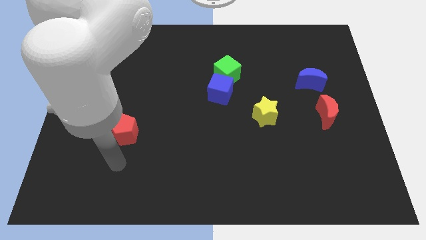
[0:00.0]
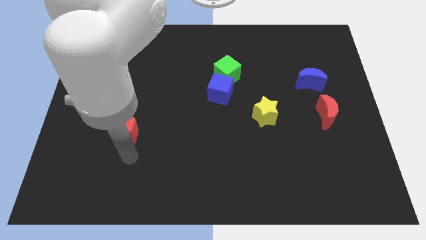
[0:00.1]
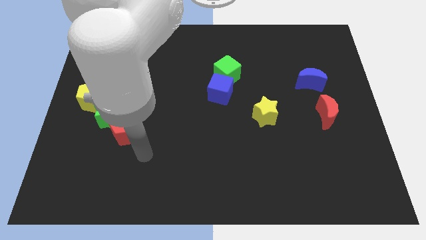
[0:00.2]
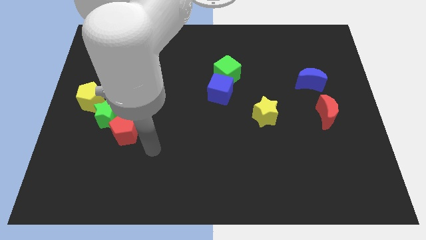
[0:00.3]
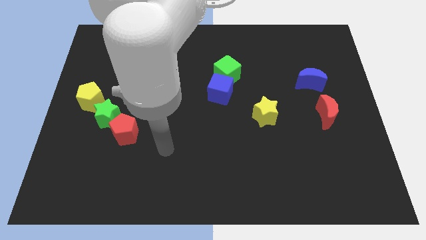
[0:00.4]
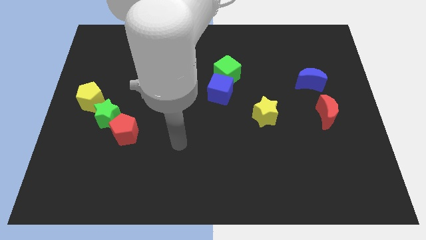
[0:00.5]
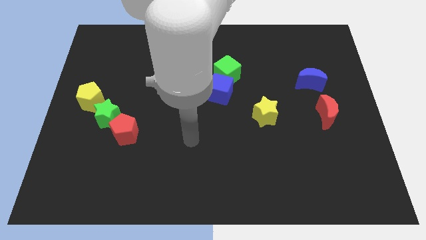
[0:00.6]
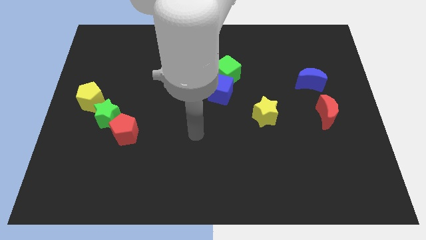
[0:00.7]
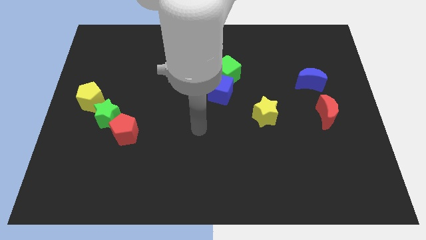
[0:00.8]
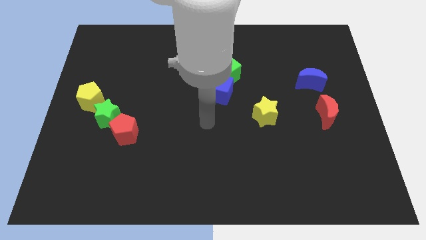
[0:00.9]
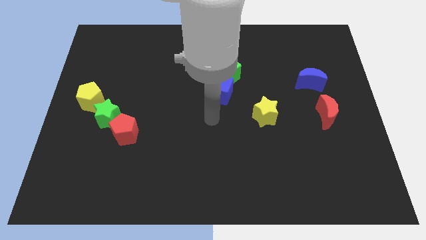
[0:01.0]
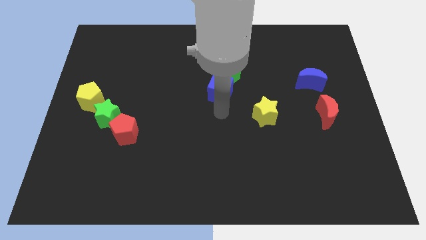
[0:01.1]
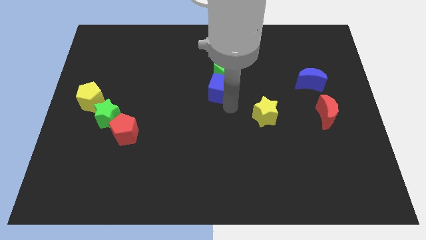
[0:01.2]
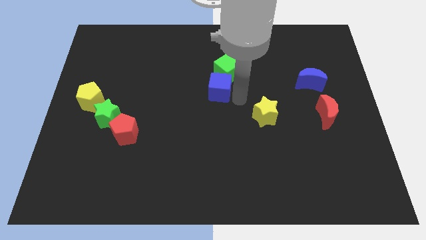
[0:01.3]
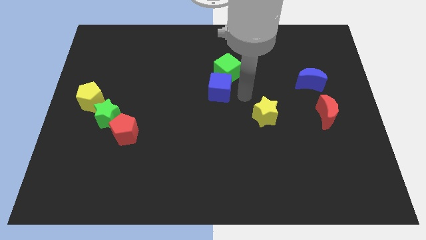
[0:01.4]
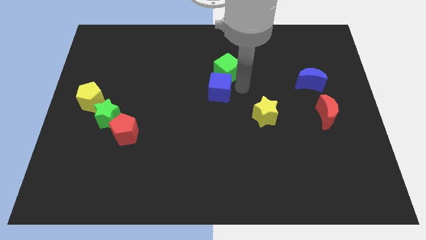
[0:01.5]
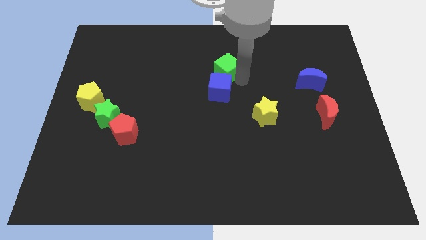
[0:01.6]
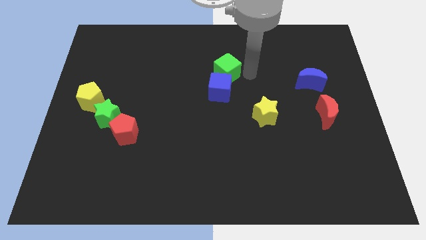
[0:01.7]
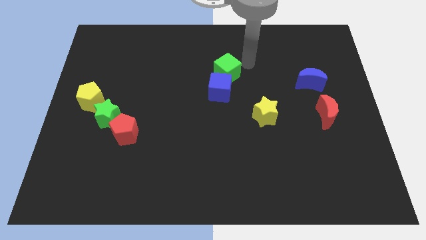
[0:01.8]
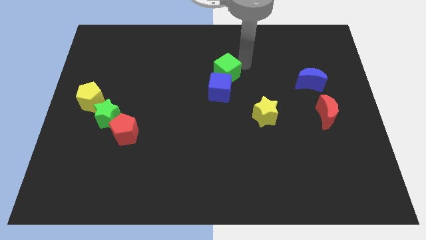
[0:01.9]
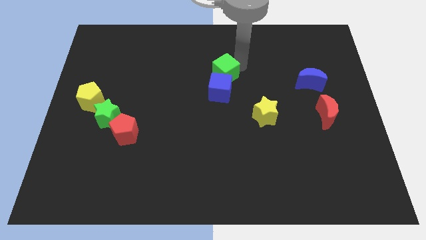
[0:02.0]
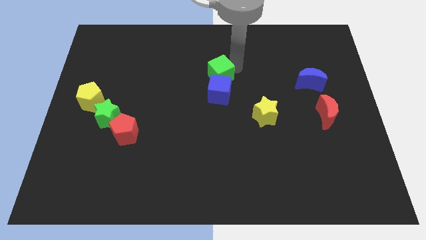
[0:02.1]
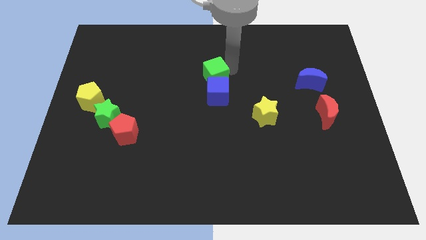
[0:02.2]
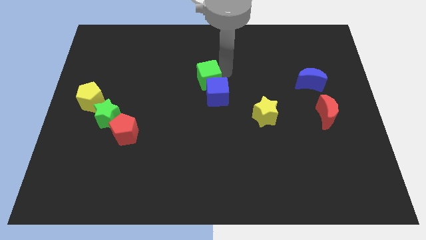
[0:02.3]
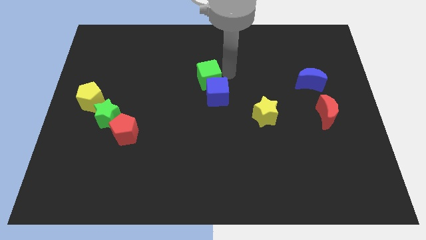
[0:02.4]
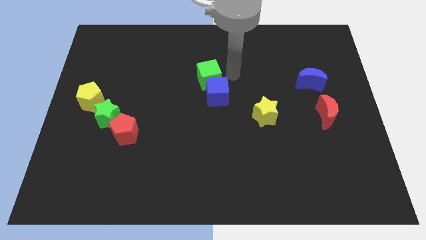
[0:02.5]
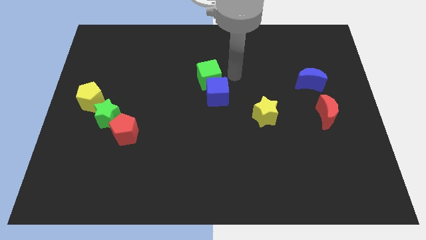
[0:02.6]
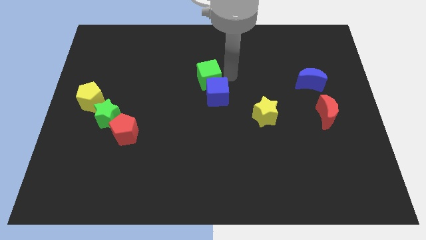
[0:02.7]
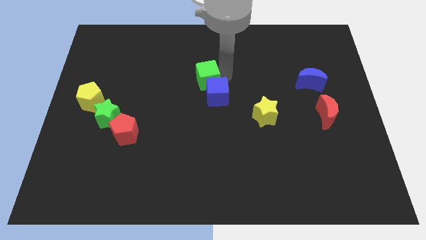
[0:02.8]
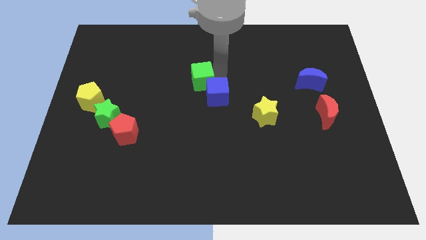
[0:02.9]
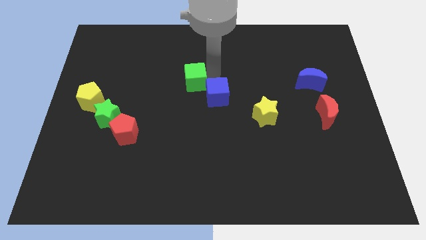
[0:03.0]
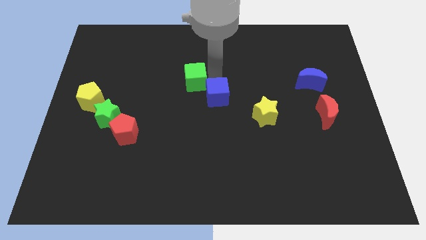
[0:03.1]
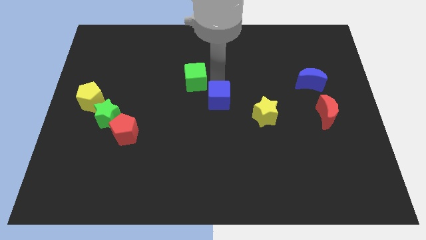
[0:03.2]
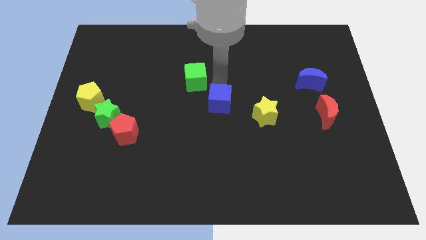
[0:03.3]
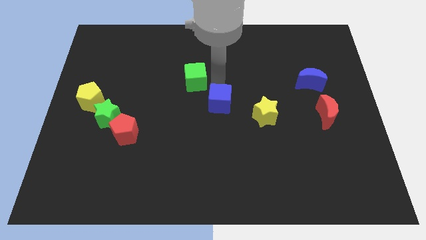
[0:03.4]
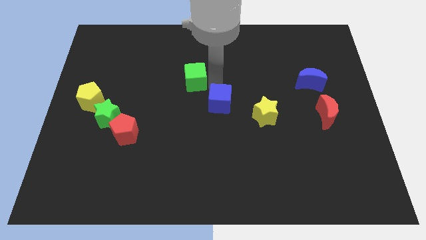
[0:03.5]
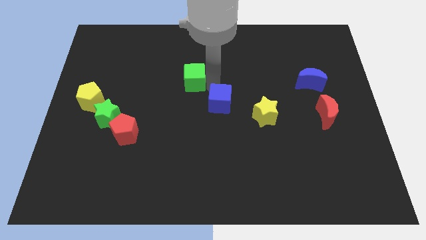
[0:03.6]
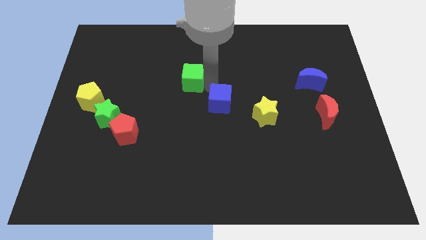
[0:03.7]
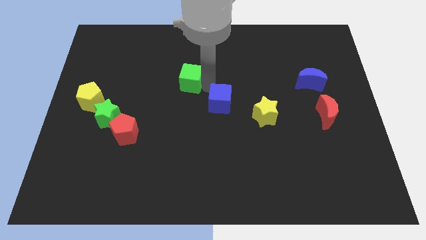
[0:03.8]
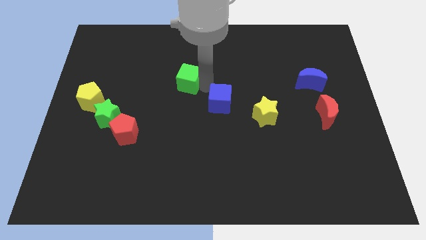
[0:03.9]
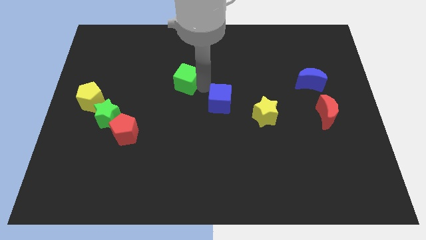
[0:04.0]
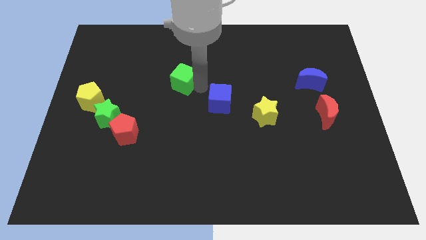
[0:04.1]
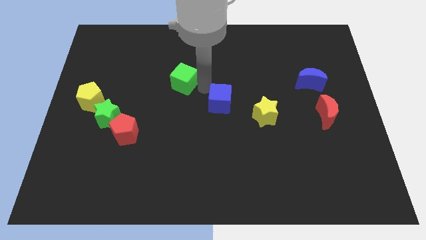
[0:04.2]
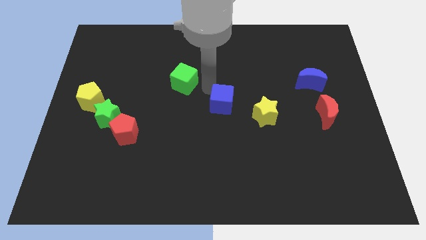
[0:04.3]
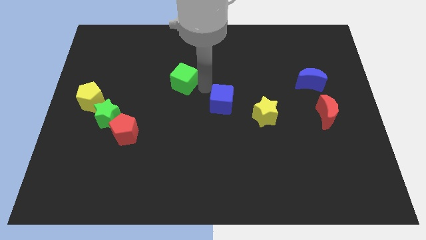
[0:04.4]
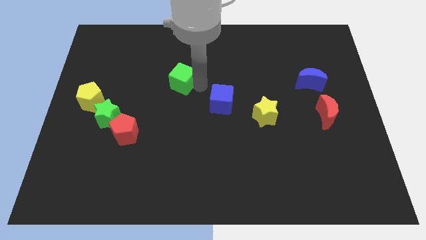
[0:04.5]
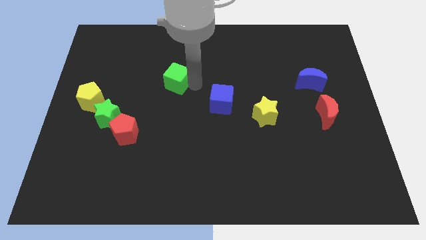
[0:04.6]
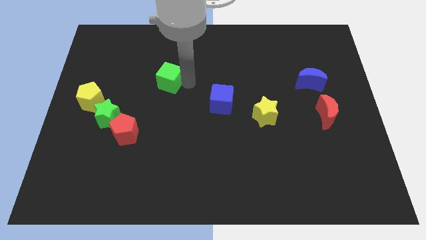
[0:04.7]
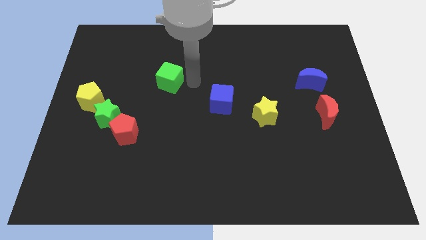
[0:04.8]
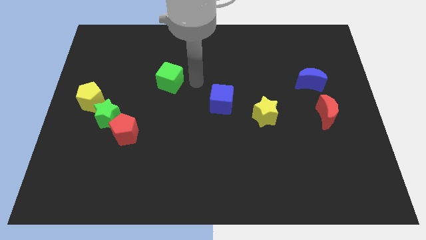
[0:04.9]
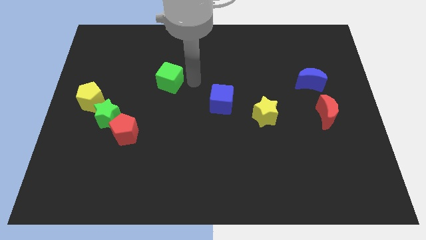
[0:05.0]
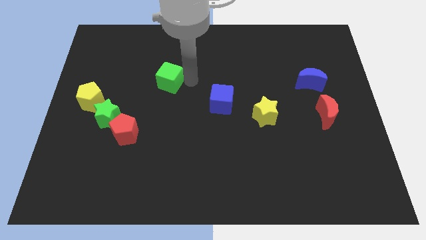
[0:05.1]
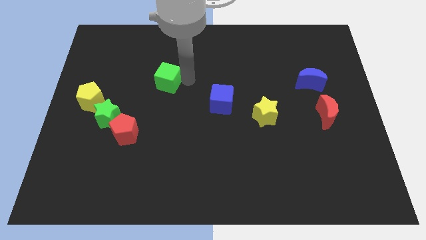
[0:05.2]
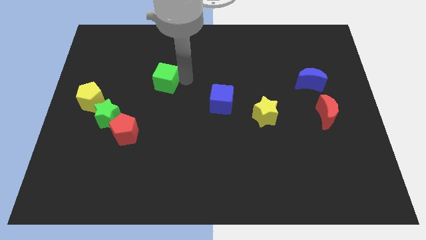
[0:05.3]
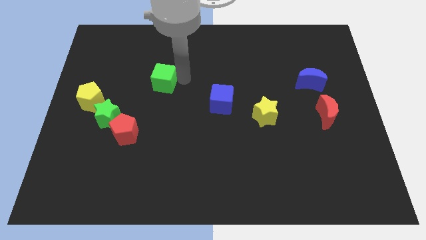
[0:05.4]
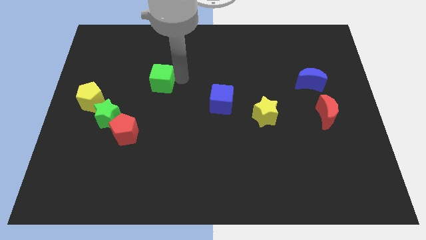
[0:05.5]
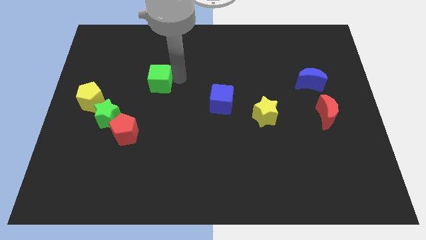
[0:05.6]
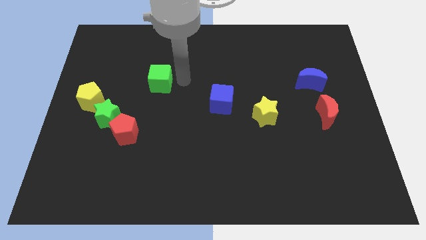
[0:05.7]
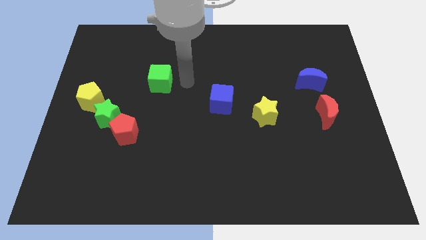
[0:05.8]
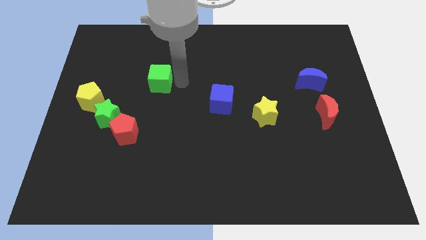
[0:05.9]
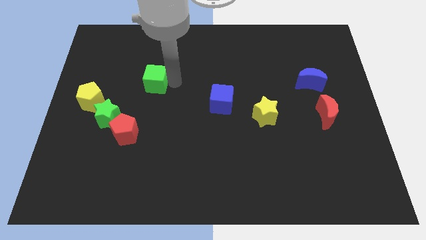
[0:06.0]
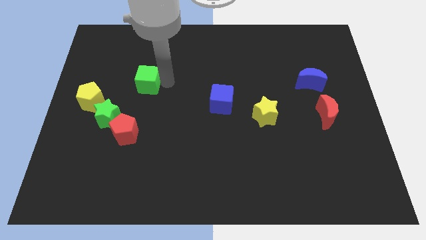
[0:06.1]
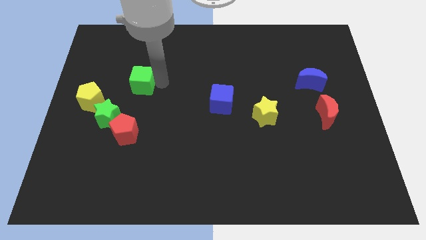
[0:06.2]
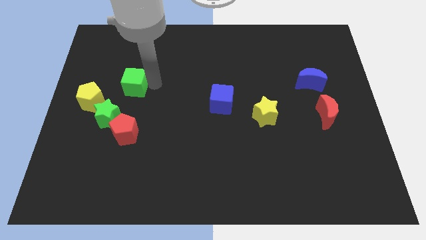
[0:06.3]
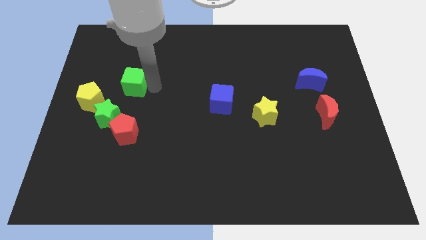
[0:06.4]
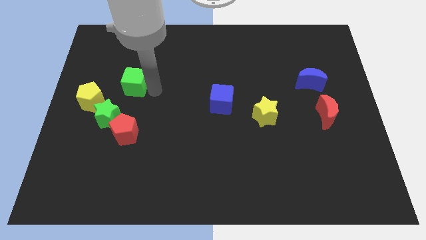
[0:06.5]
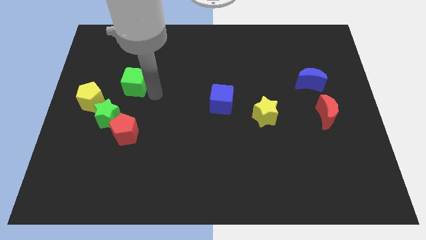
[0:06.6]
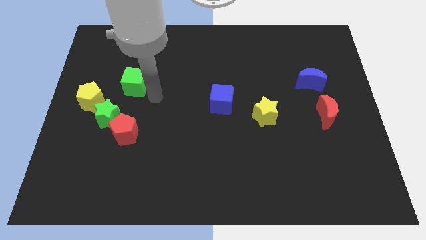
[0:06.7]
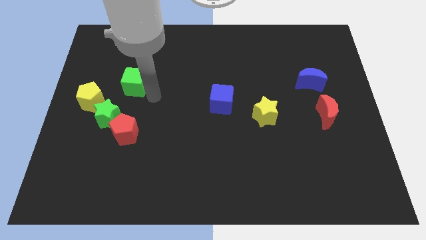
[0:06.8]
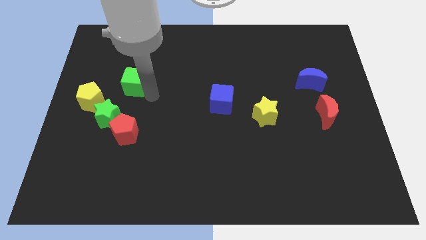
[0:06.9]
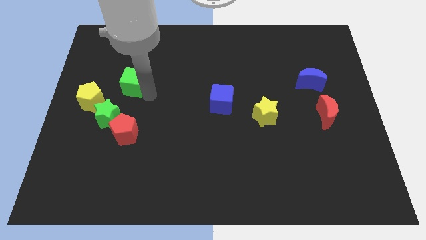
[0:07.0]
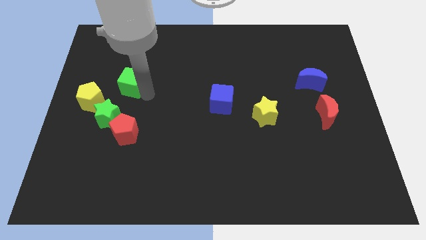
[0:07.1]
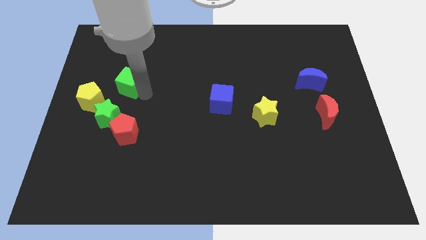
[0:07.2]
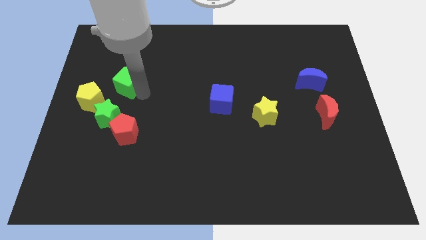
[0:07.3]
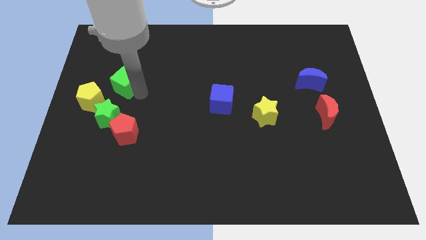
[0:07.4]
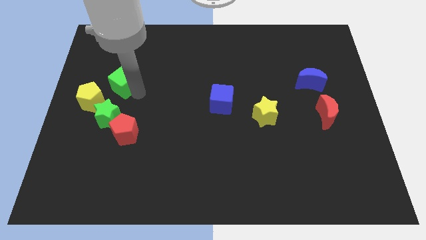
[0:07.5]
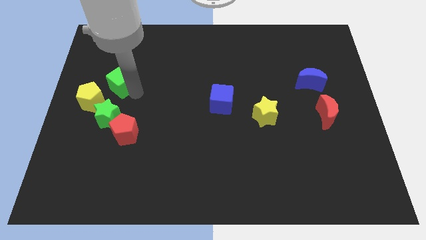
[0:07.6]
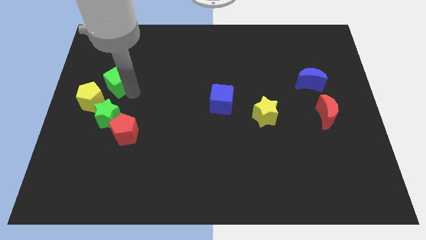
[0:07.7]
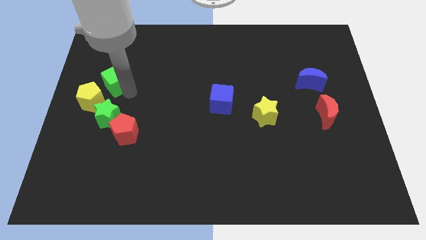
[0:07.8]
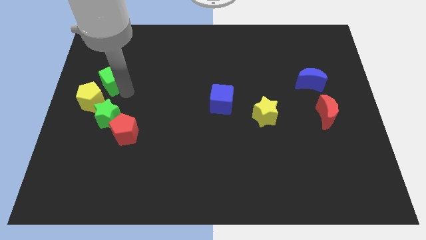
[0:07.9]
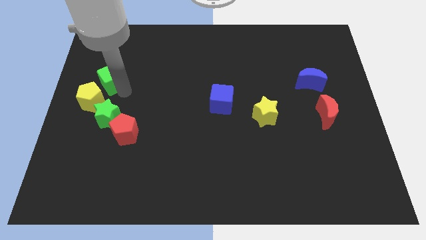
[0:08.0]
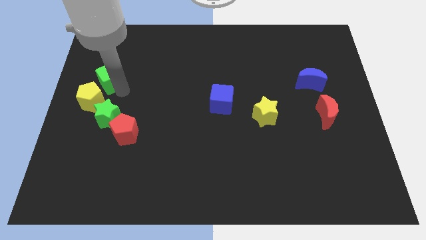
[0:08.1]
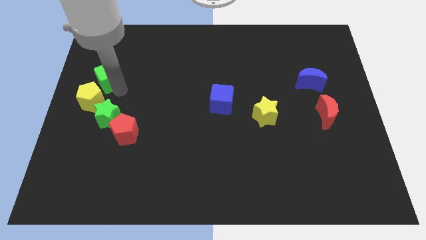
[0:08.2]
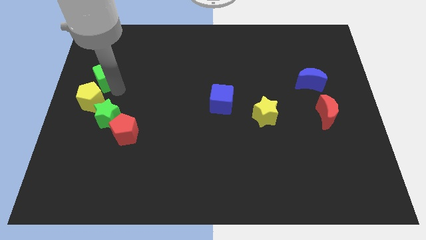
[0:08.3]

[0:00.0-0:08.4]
push the green cube to the left side of the board
